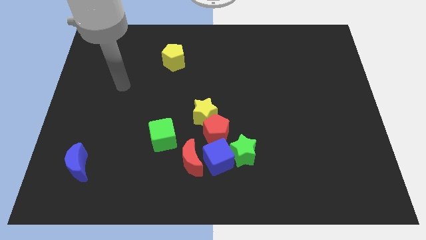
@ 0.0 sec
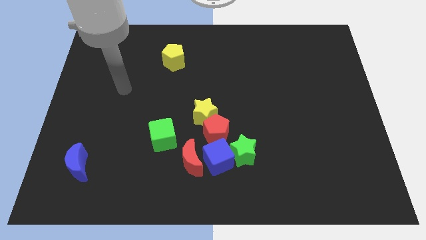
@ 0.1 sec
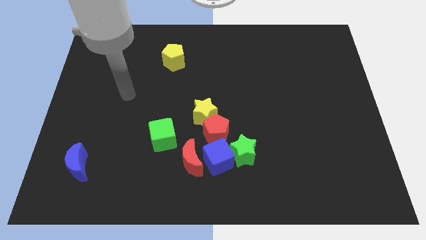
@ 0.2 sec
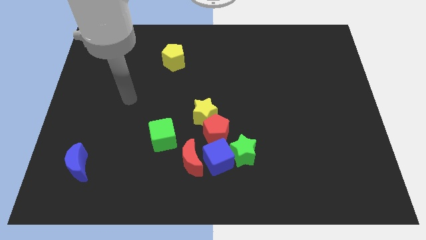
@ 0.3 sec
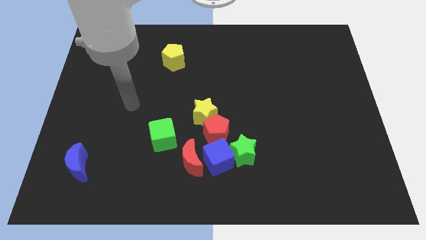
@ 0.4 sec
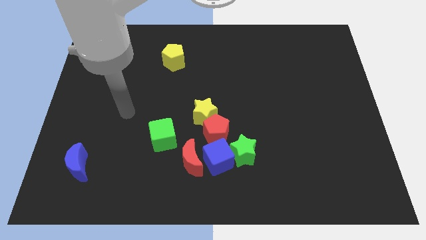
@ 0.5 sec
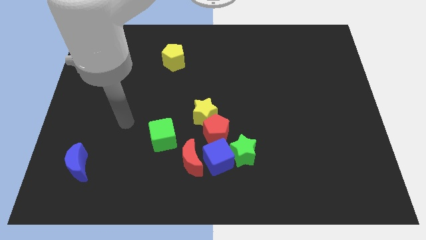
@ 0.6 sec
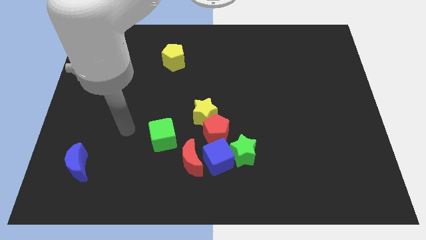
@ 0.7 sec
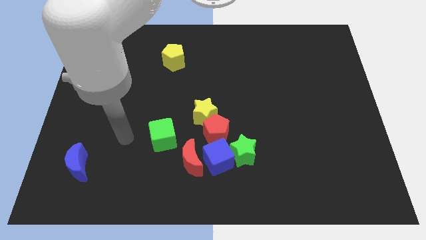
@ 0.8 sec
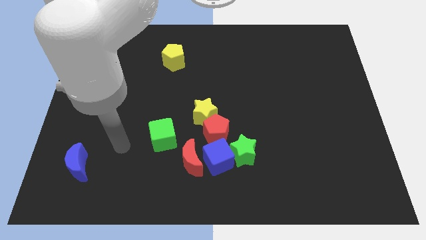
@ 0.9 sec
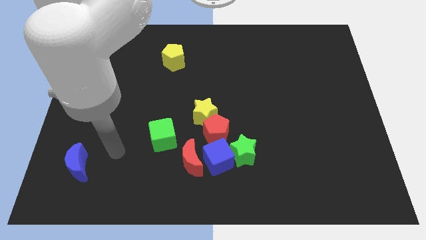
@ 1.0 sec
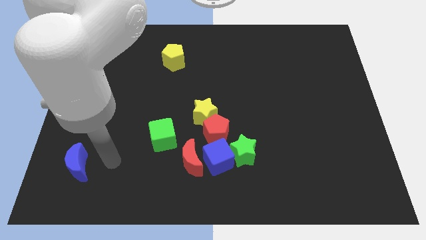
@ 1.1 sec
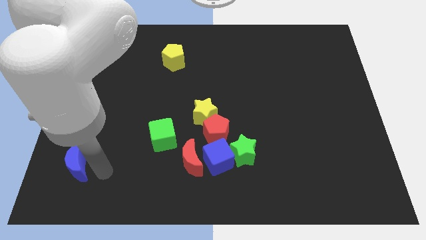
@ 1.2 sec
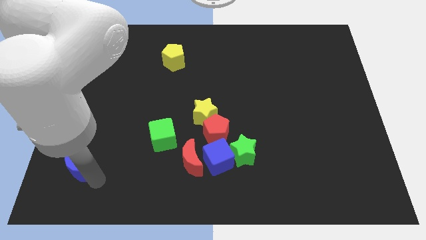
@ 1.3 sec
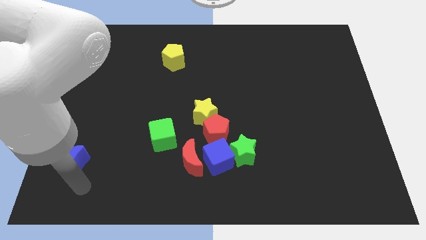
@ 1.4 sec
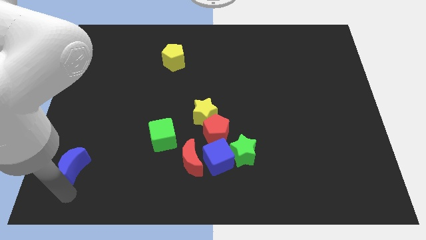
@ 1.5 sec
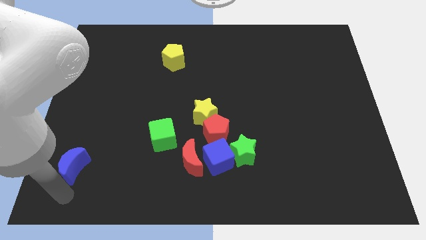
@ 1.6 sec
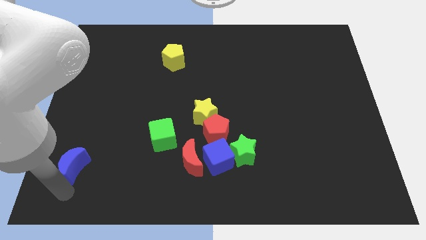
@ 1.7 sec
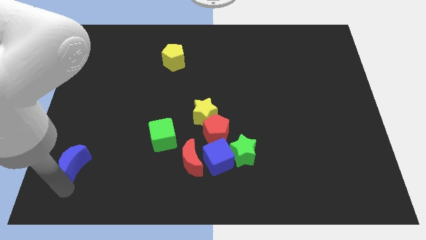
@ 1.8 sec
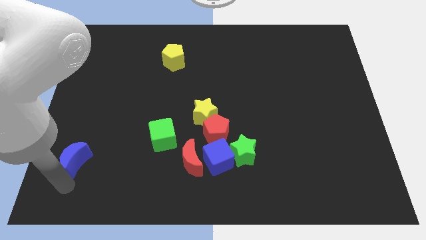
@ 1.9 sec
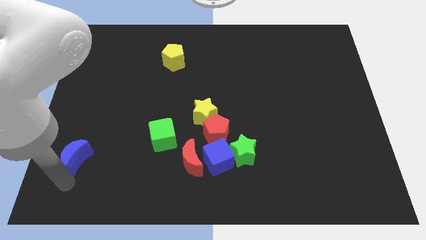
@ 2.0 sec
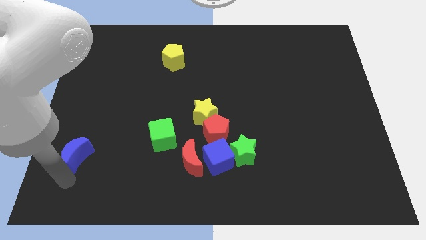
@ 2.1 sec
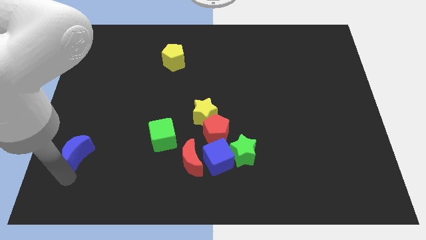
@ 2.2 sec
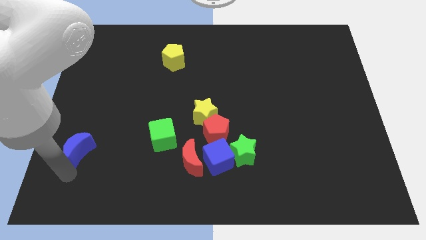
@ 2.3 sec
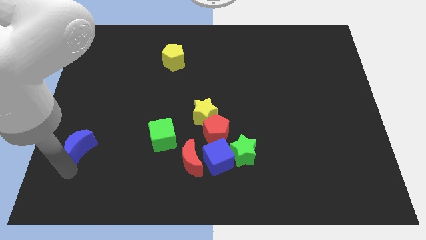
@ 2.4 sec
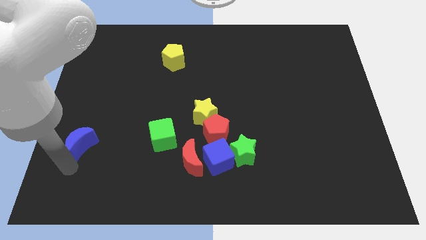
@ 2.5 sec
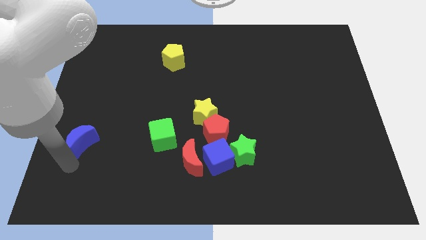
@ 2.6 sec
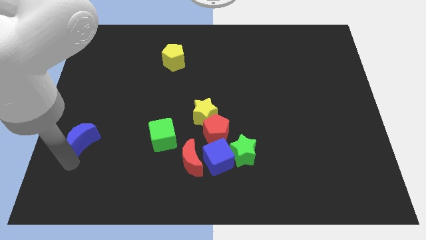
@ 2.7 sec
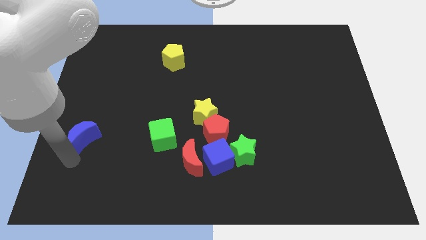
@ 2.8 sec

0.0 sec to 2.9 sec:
slightly slide the blue moon up

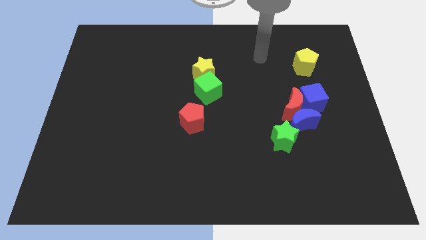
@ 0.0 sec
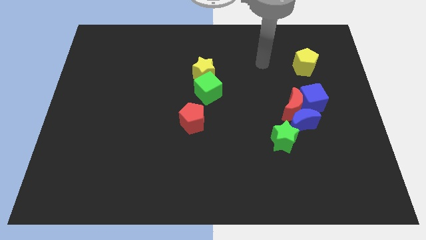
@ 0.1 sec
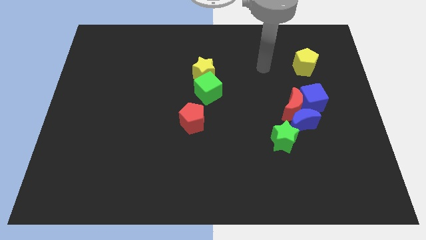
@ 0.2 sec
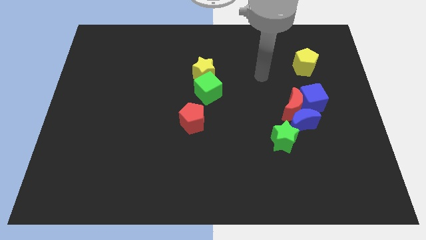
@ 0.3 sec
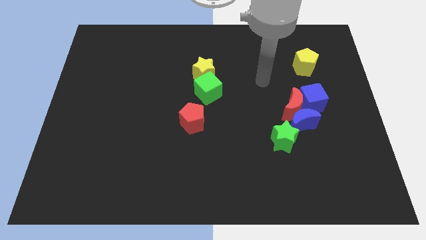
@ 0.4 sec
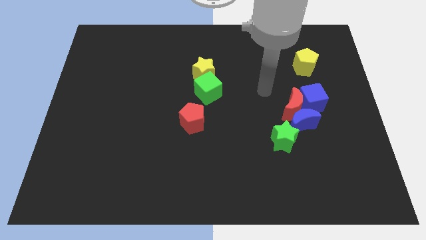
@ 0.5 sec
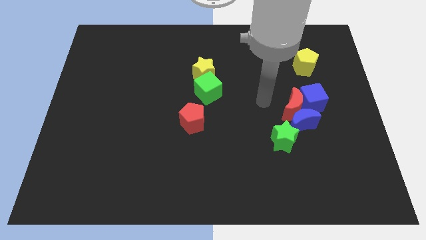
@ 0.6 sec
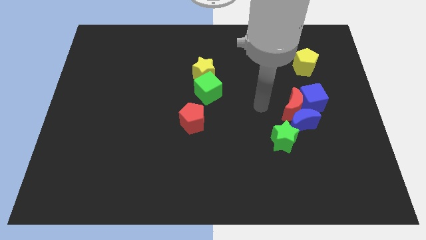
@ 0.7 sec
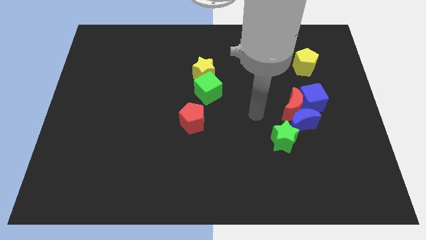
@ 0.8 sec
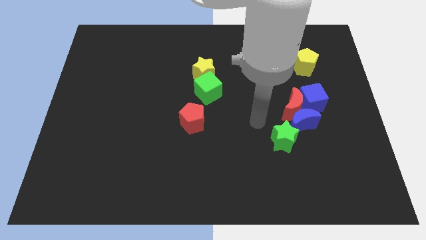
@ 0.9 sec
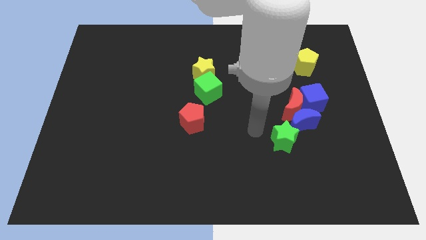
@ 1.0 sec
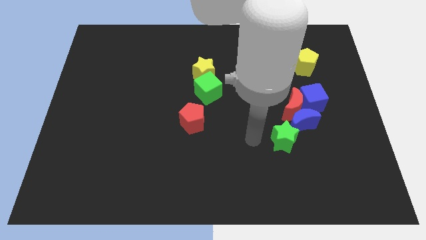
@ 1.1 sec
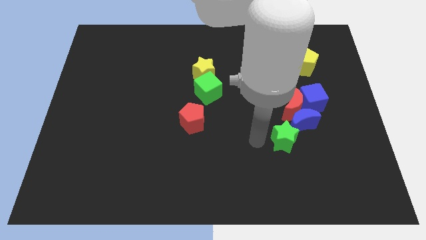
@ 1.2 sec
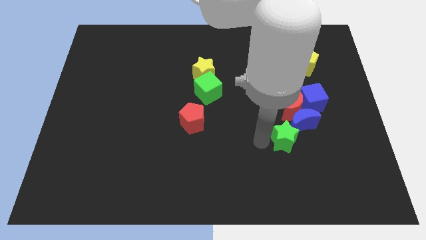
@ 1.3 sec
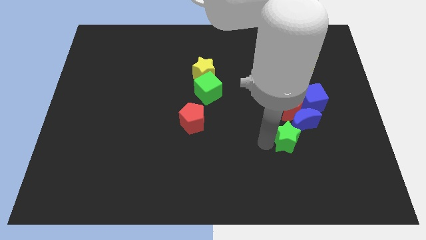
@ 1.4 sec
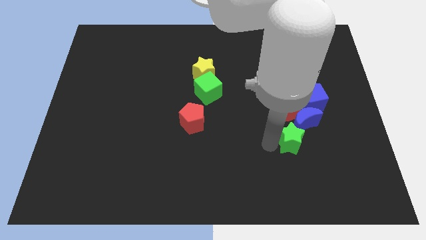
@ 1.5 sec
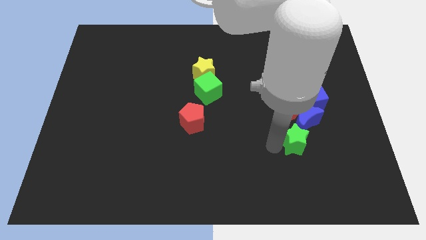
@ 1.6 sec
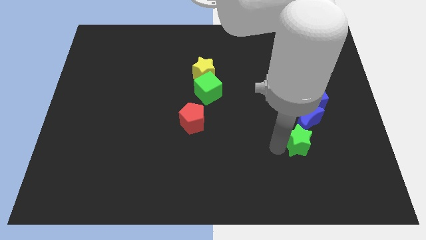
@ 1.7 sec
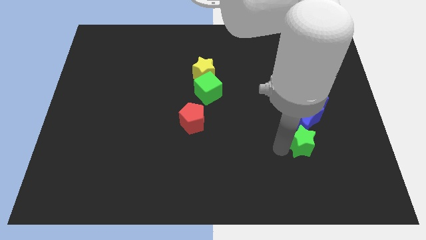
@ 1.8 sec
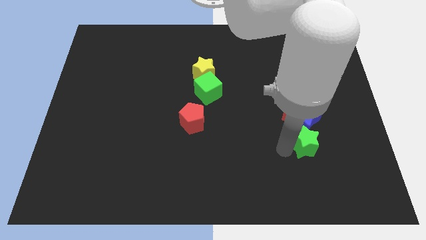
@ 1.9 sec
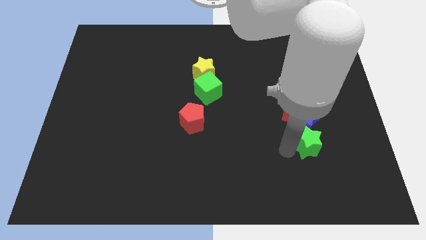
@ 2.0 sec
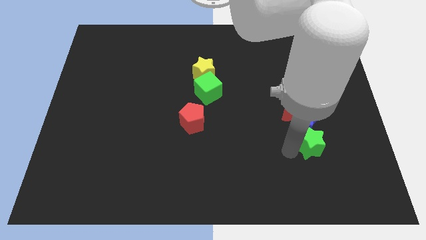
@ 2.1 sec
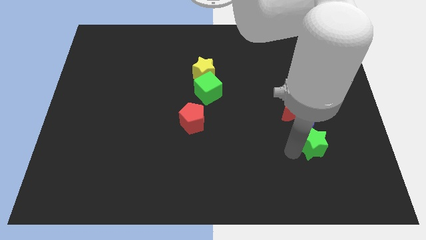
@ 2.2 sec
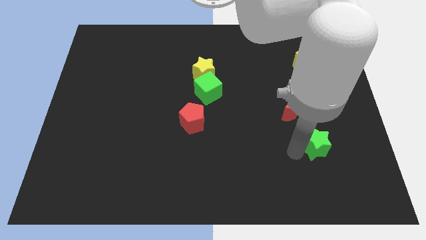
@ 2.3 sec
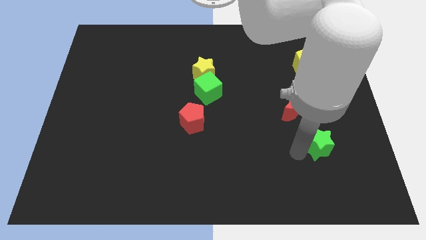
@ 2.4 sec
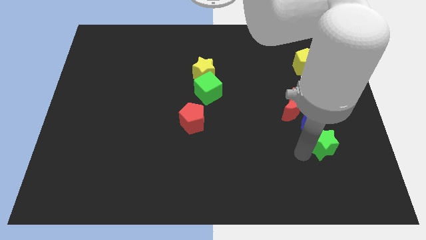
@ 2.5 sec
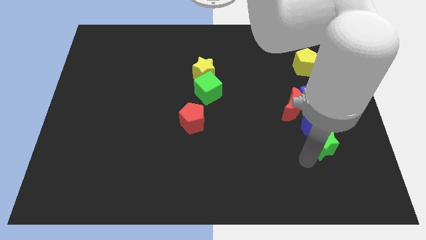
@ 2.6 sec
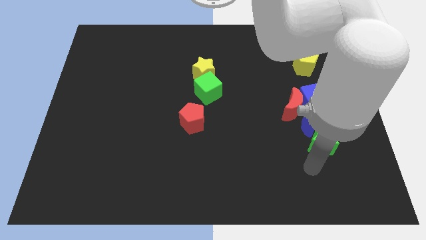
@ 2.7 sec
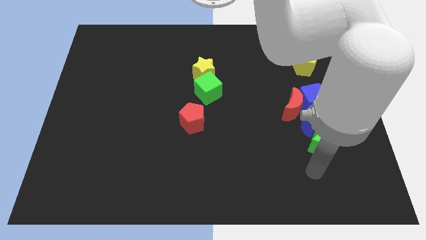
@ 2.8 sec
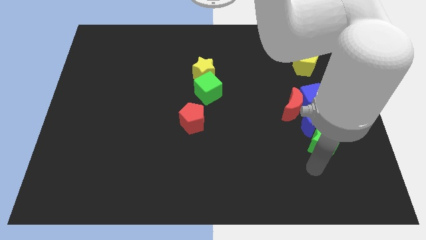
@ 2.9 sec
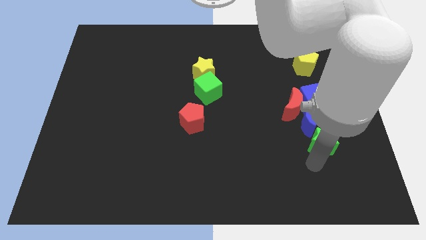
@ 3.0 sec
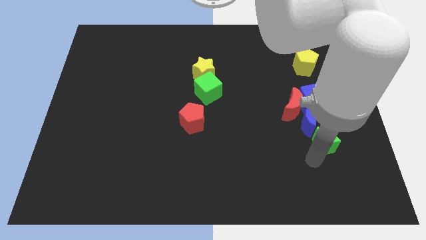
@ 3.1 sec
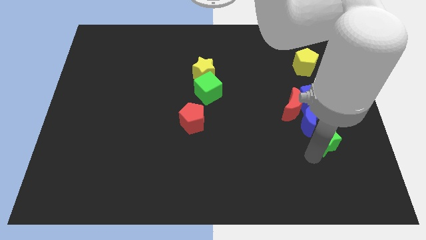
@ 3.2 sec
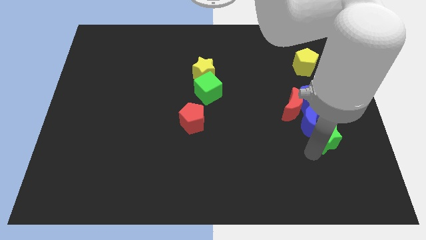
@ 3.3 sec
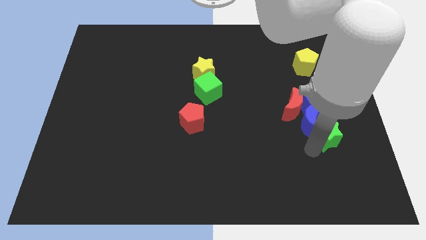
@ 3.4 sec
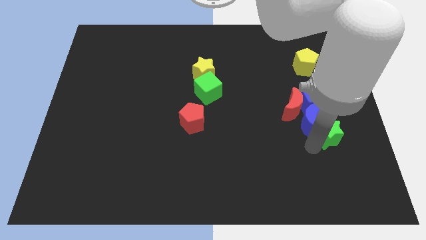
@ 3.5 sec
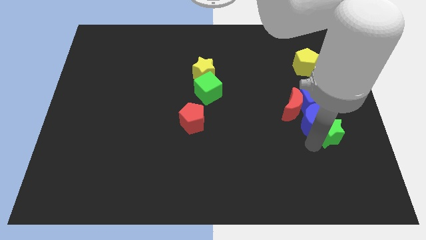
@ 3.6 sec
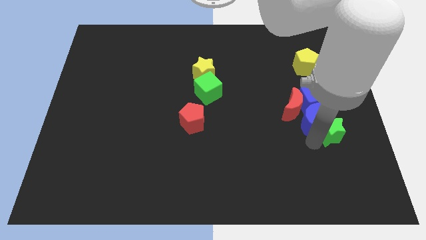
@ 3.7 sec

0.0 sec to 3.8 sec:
slide the green star slightly upwards and then to the right

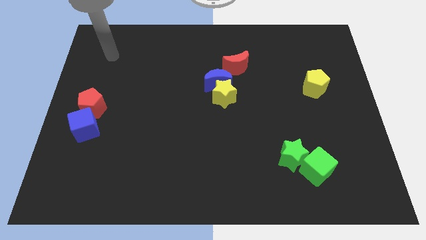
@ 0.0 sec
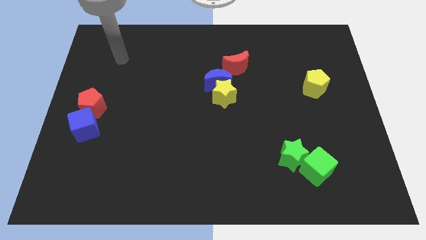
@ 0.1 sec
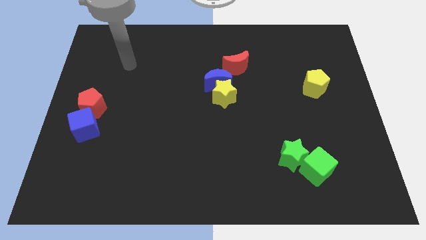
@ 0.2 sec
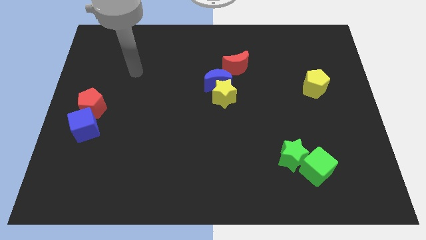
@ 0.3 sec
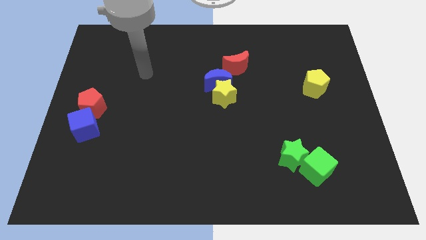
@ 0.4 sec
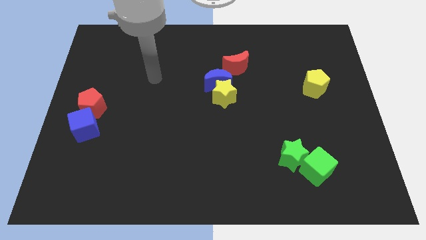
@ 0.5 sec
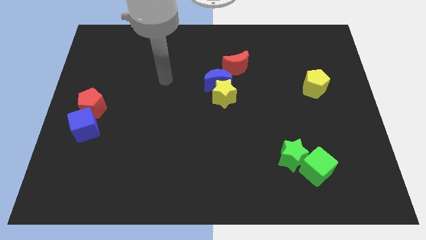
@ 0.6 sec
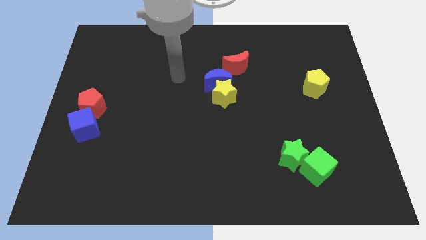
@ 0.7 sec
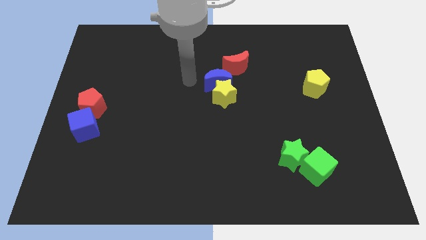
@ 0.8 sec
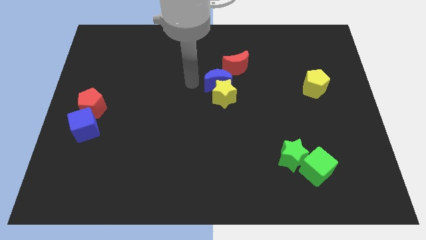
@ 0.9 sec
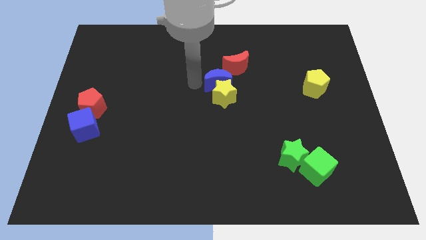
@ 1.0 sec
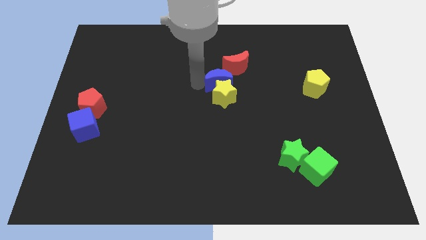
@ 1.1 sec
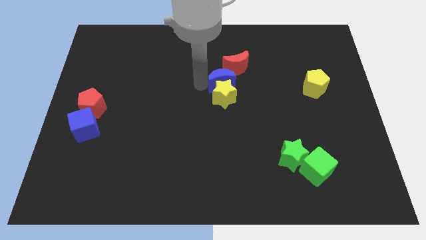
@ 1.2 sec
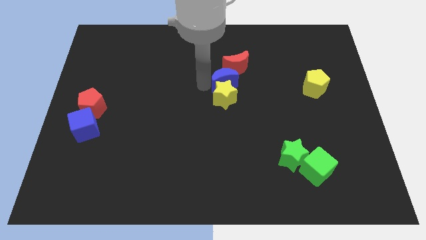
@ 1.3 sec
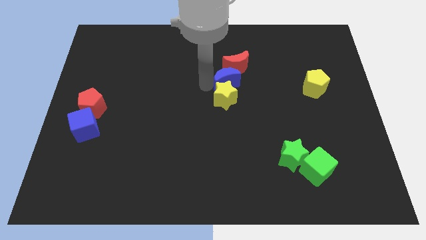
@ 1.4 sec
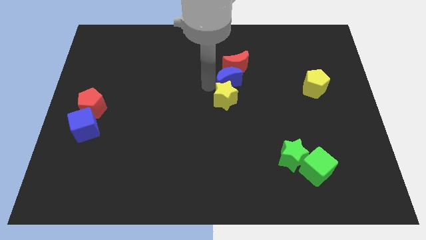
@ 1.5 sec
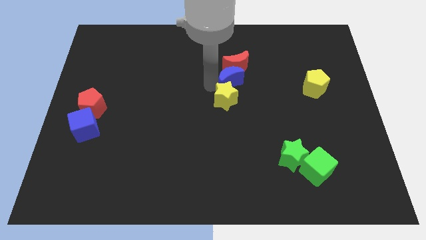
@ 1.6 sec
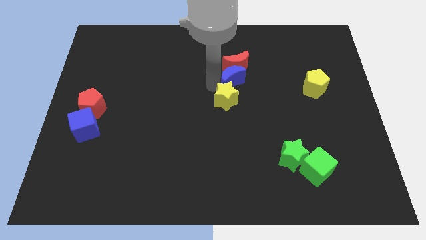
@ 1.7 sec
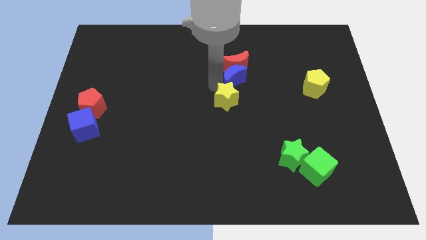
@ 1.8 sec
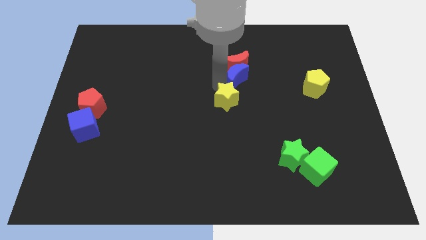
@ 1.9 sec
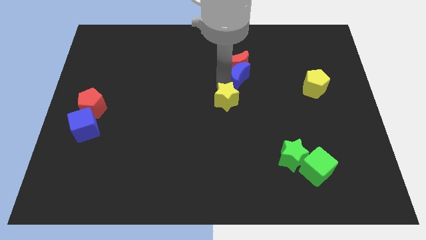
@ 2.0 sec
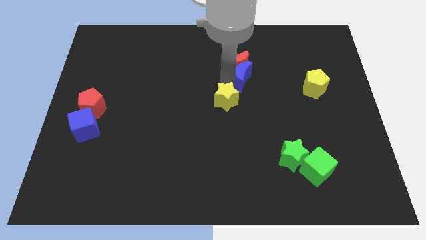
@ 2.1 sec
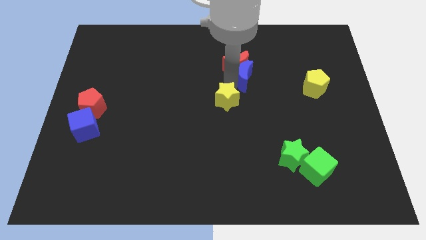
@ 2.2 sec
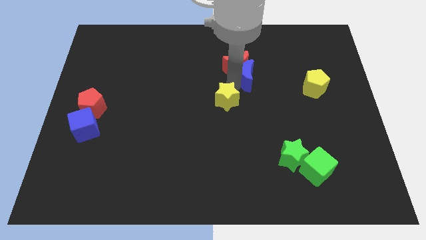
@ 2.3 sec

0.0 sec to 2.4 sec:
slide the blue moon a little to the right
